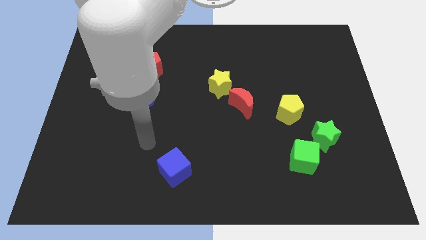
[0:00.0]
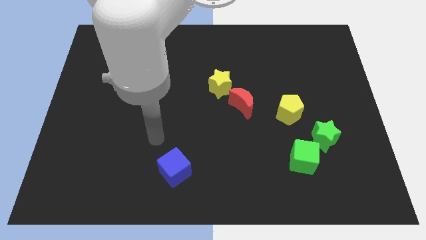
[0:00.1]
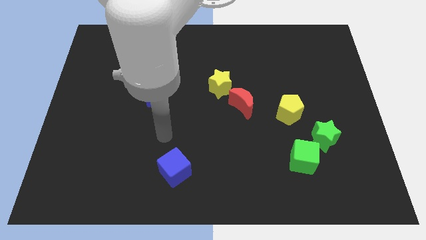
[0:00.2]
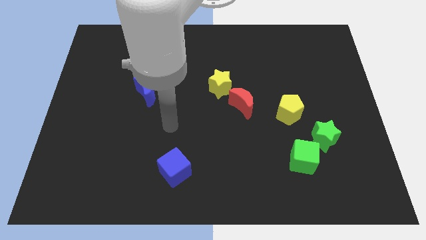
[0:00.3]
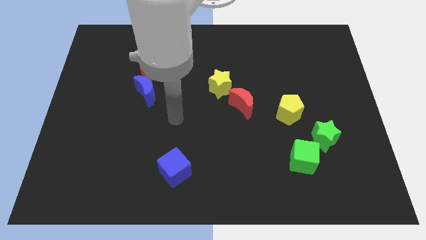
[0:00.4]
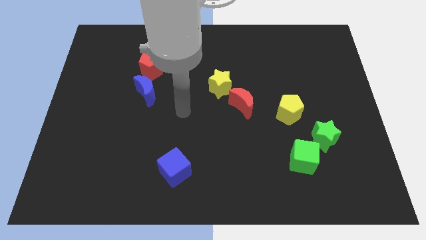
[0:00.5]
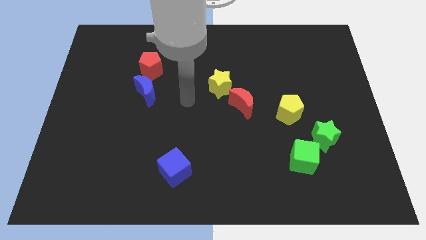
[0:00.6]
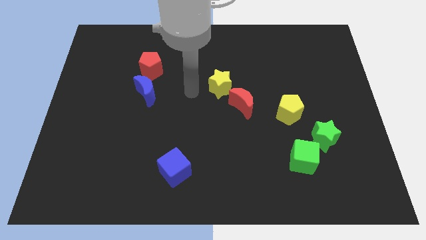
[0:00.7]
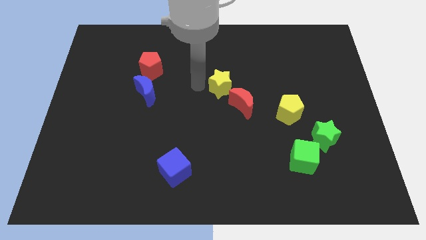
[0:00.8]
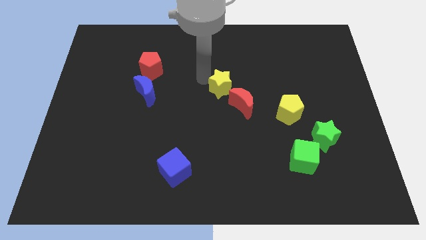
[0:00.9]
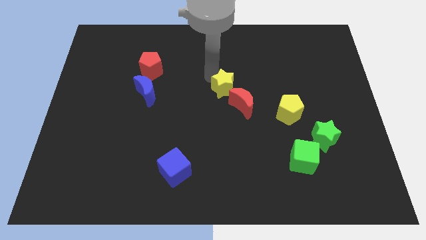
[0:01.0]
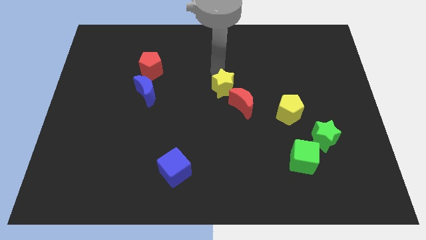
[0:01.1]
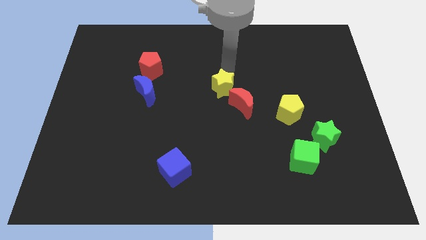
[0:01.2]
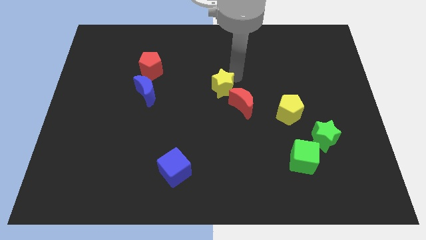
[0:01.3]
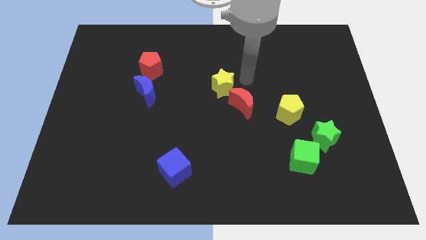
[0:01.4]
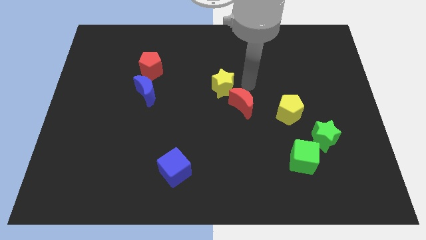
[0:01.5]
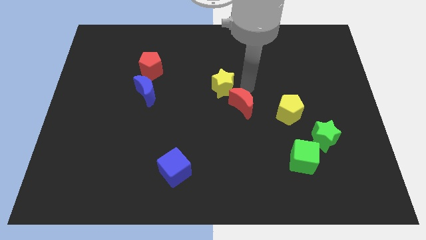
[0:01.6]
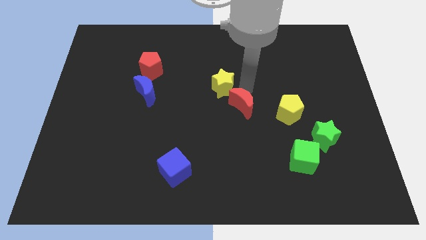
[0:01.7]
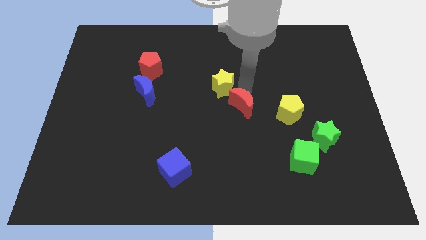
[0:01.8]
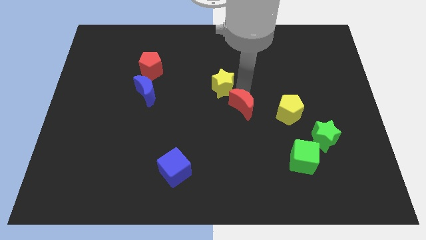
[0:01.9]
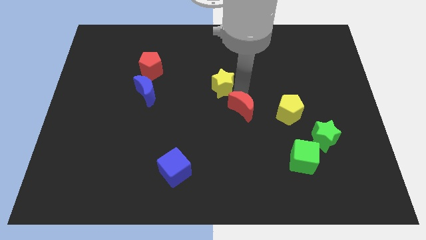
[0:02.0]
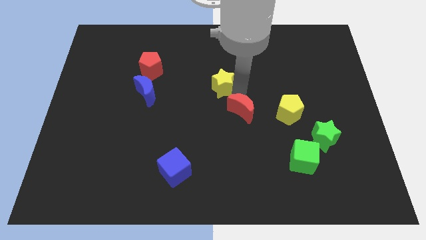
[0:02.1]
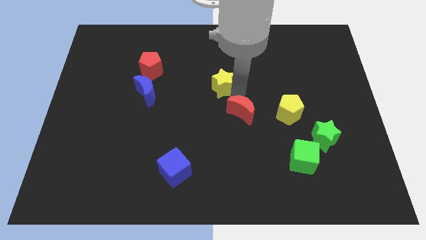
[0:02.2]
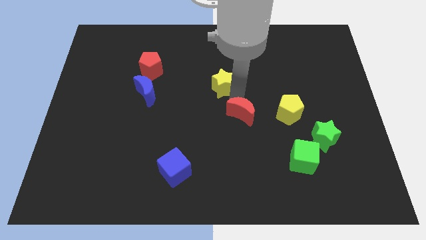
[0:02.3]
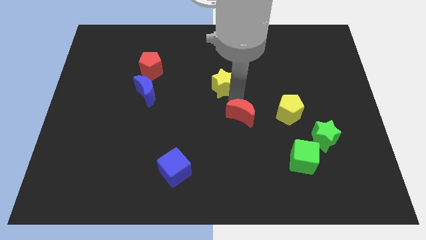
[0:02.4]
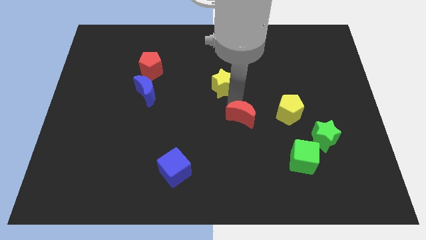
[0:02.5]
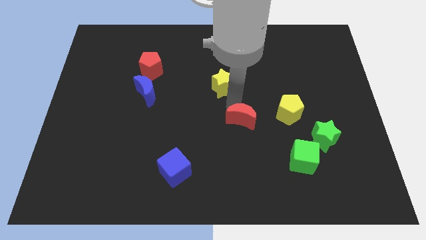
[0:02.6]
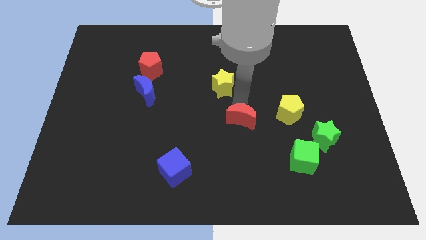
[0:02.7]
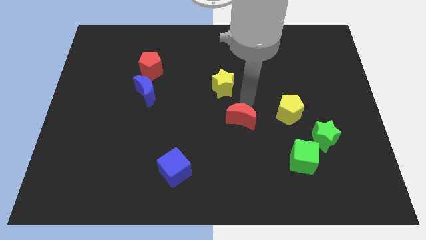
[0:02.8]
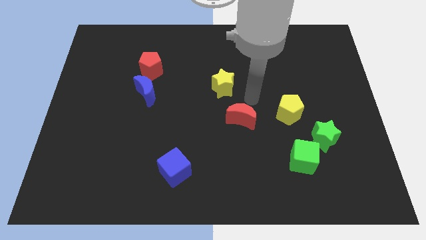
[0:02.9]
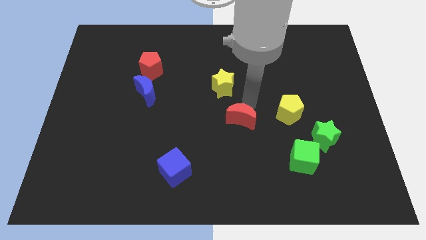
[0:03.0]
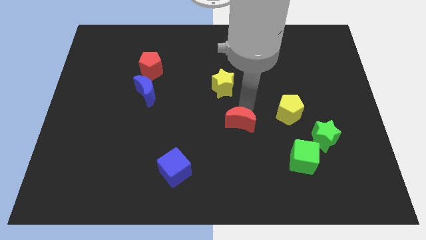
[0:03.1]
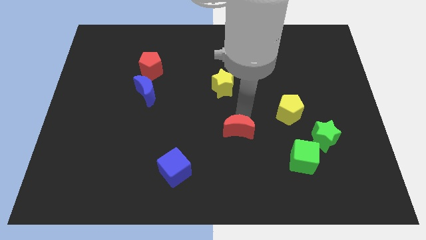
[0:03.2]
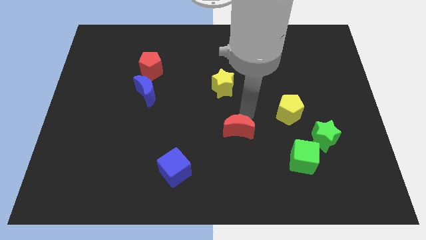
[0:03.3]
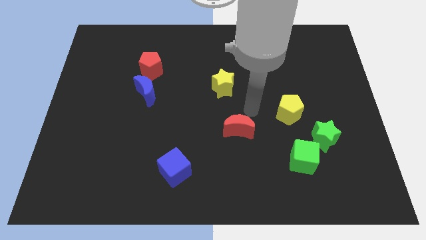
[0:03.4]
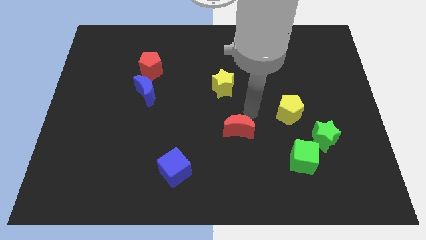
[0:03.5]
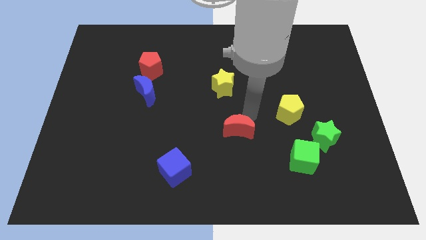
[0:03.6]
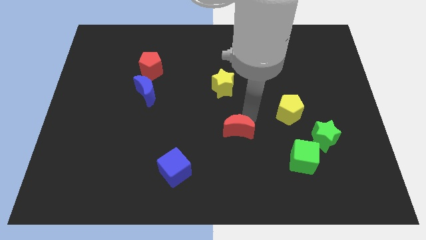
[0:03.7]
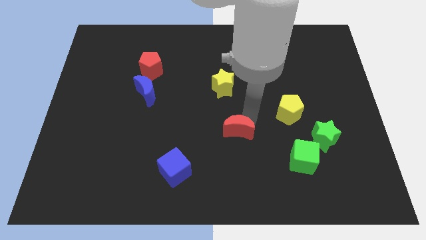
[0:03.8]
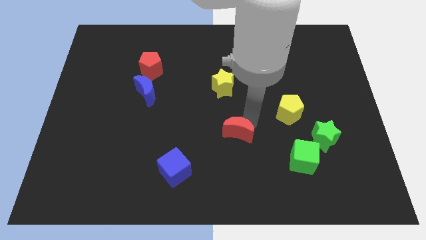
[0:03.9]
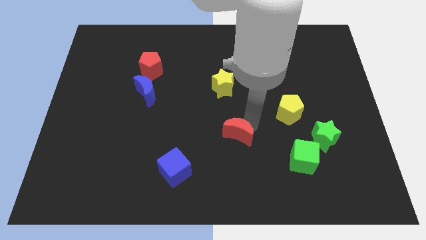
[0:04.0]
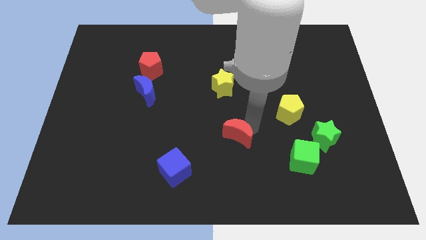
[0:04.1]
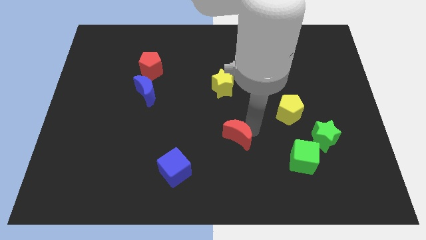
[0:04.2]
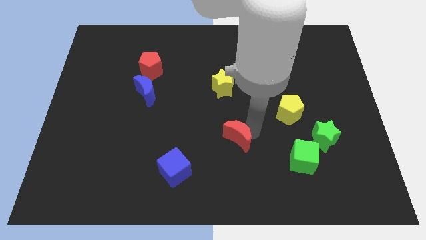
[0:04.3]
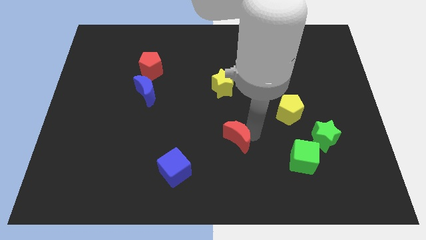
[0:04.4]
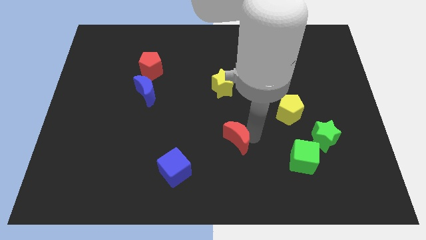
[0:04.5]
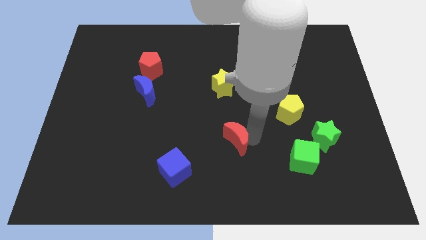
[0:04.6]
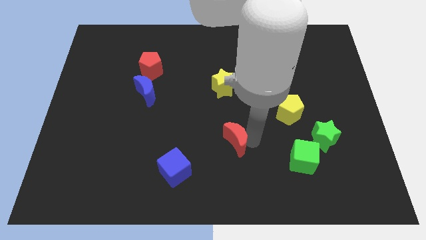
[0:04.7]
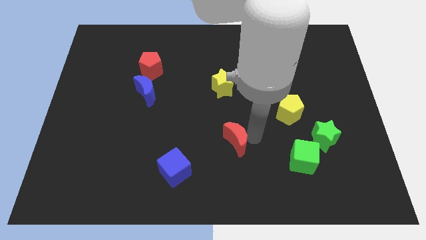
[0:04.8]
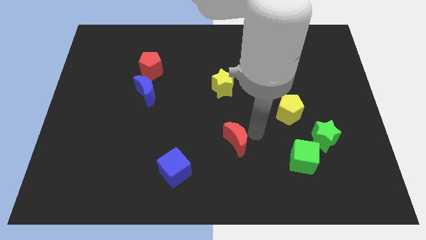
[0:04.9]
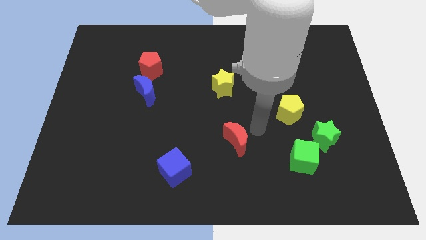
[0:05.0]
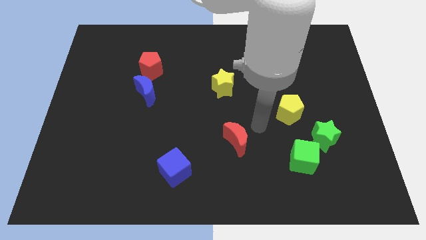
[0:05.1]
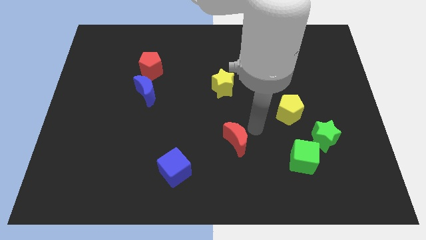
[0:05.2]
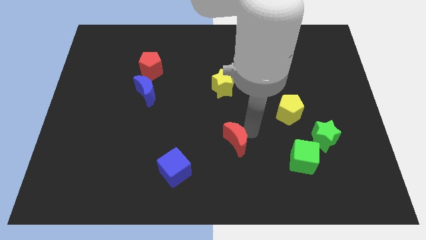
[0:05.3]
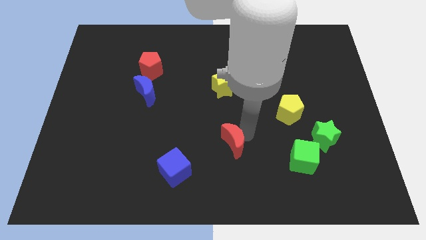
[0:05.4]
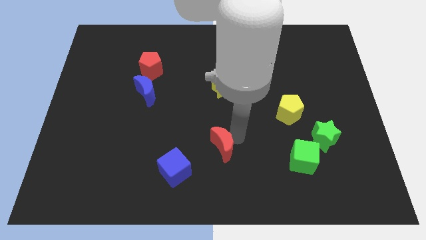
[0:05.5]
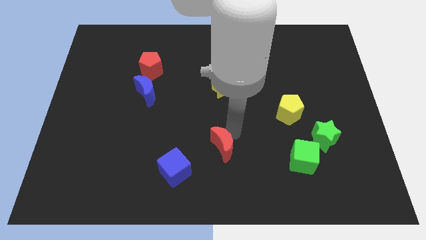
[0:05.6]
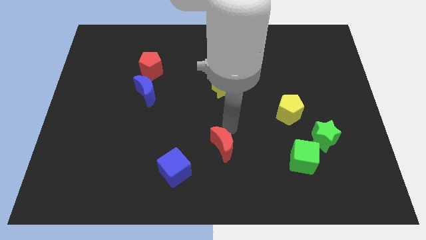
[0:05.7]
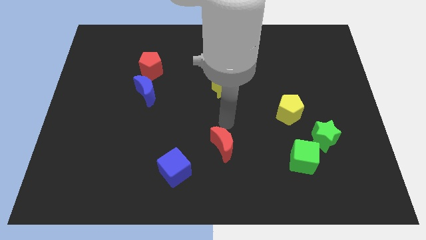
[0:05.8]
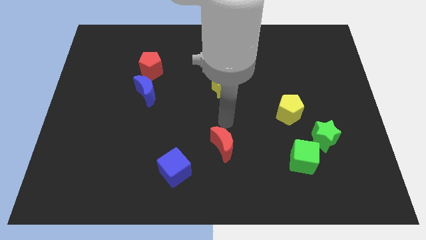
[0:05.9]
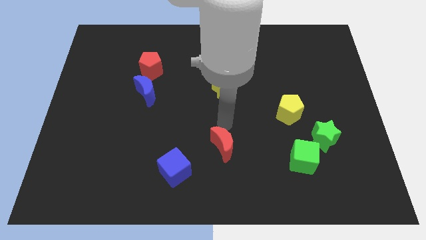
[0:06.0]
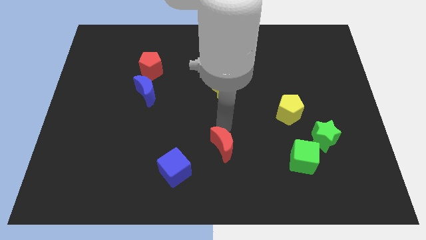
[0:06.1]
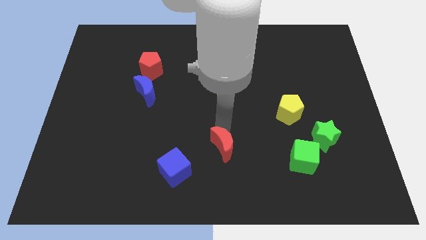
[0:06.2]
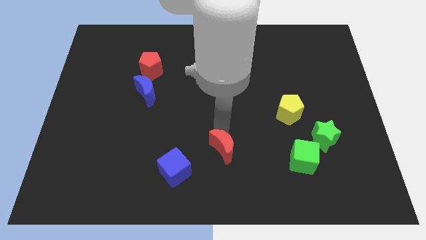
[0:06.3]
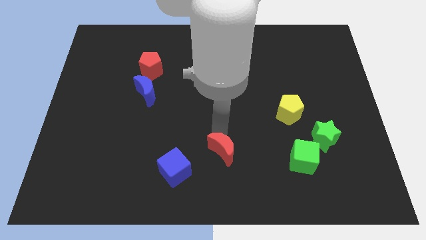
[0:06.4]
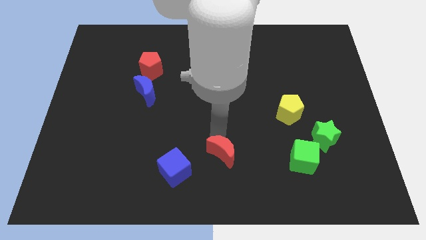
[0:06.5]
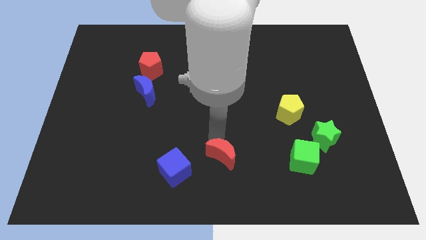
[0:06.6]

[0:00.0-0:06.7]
put the red moon to the bottom
